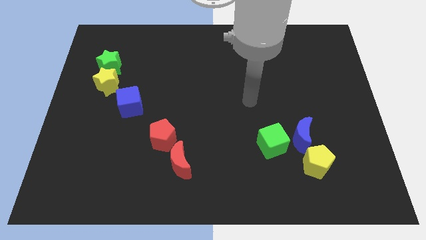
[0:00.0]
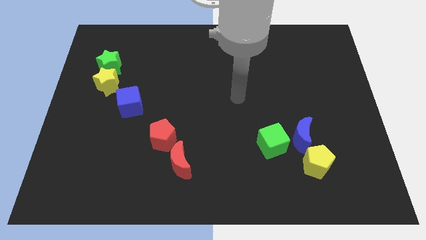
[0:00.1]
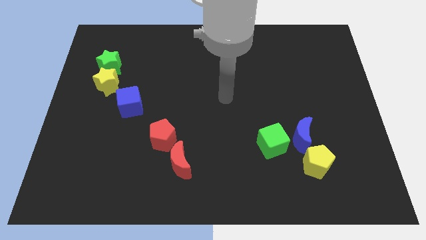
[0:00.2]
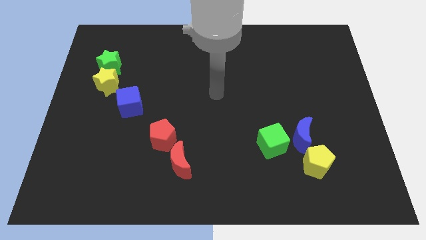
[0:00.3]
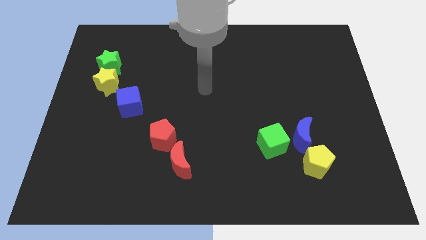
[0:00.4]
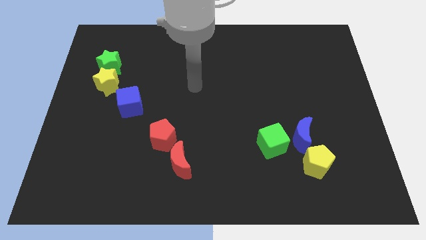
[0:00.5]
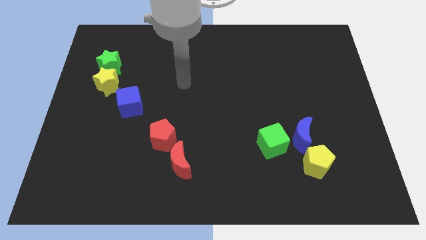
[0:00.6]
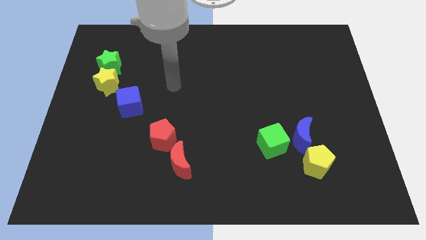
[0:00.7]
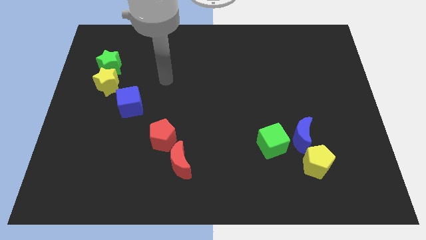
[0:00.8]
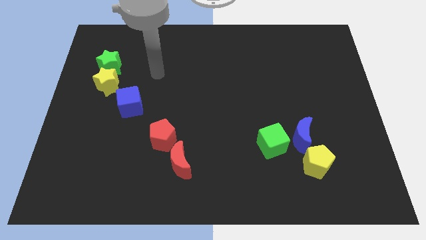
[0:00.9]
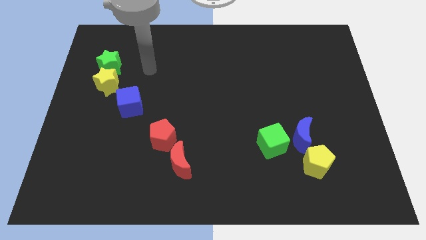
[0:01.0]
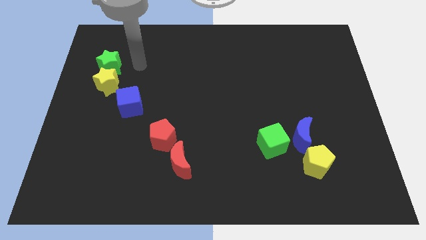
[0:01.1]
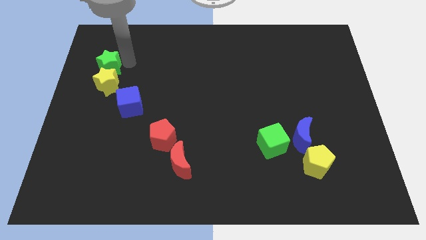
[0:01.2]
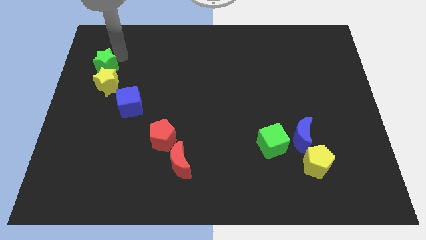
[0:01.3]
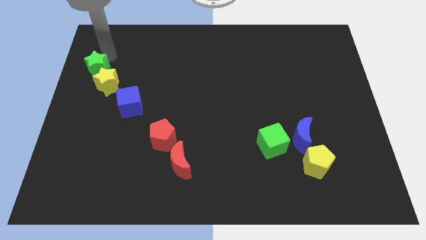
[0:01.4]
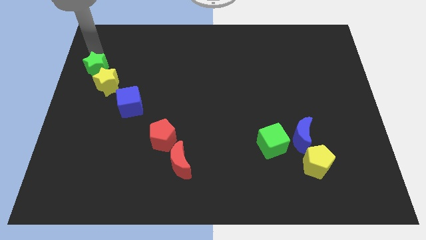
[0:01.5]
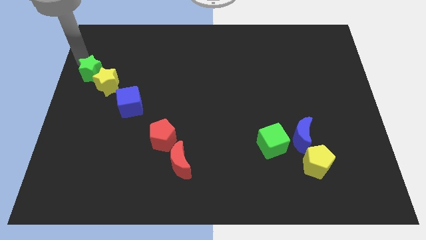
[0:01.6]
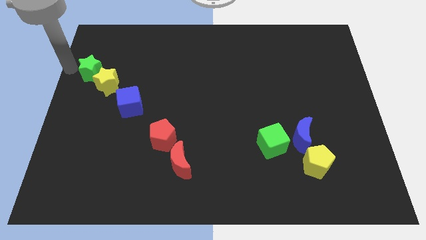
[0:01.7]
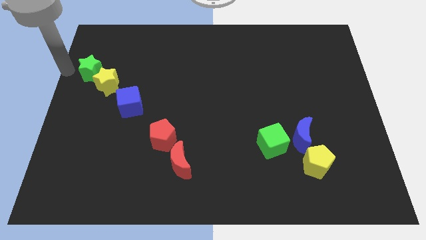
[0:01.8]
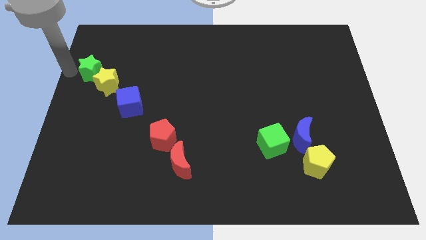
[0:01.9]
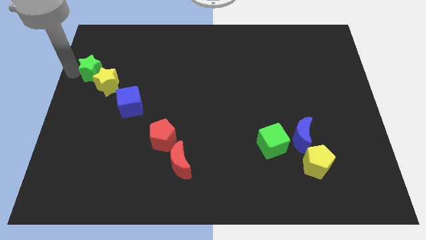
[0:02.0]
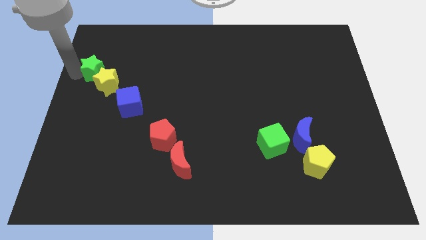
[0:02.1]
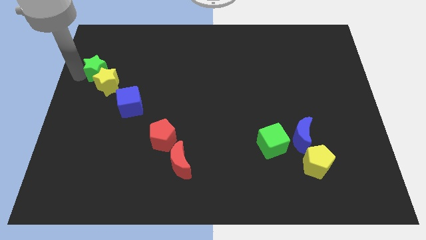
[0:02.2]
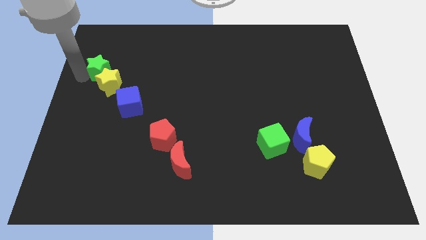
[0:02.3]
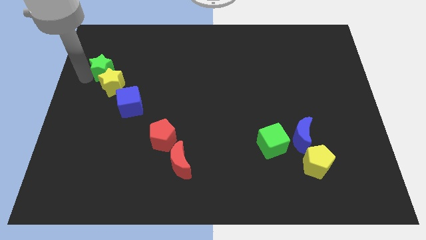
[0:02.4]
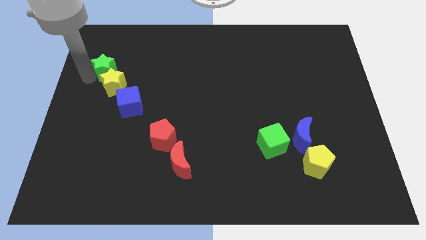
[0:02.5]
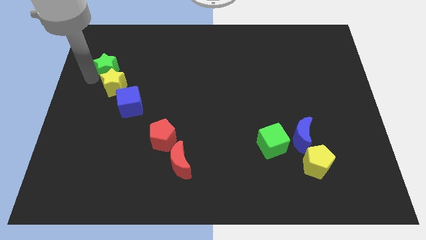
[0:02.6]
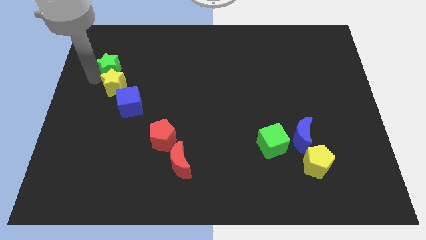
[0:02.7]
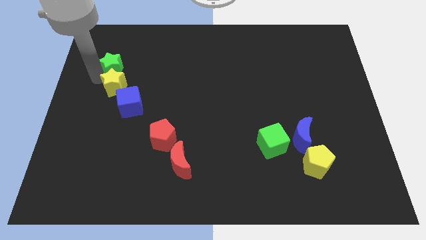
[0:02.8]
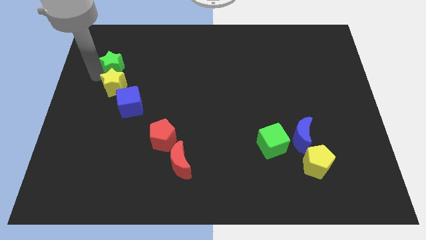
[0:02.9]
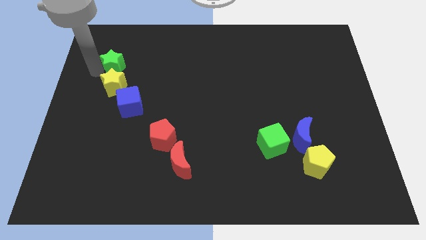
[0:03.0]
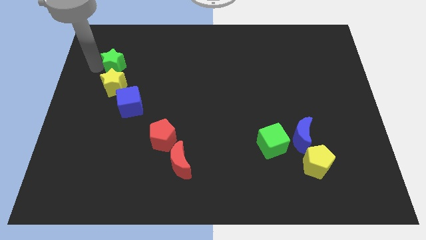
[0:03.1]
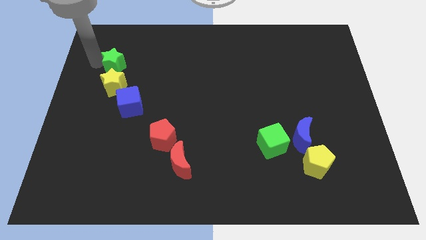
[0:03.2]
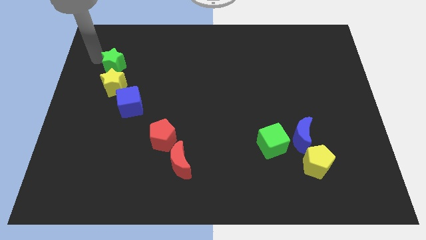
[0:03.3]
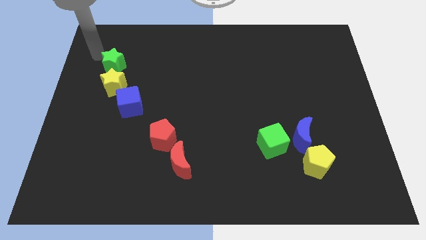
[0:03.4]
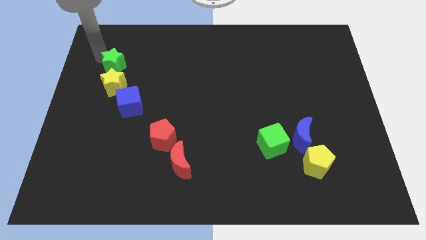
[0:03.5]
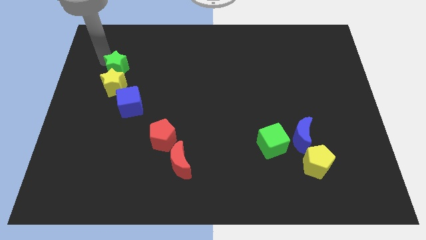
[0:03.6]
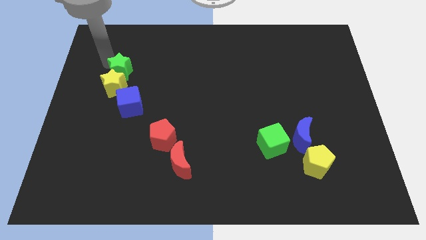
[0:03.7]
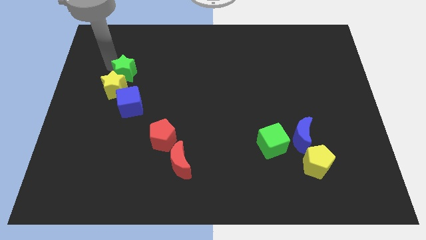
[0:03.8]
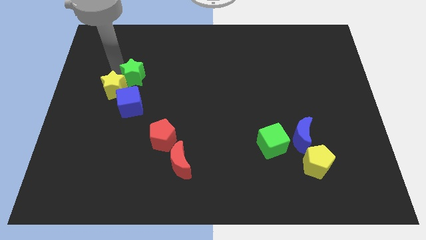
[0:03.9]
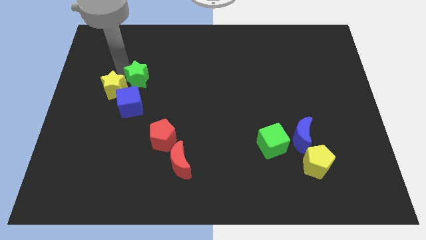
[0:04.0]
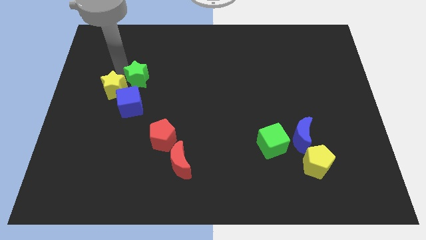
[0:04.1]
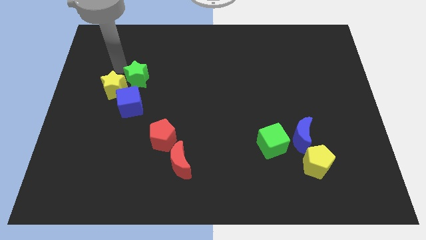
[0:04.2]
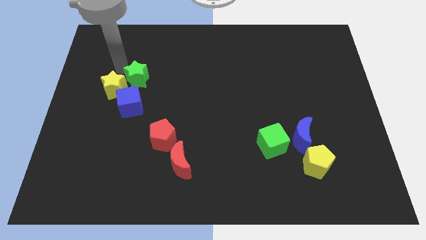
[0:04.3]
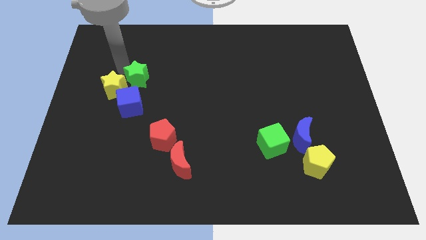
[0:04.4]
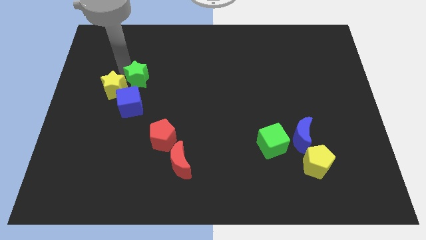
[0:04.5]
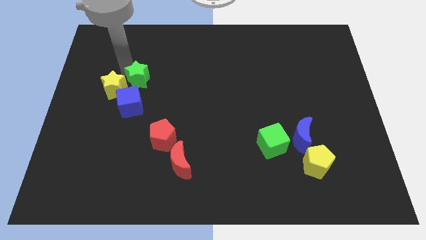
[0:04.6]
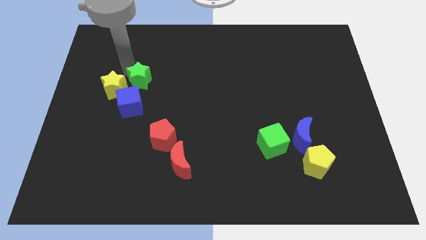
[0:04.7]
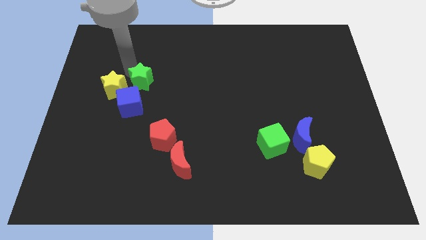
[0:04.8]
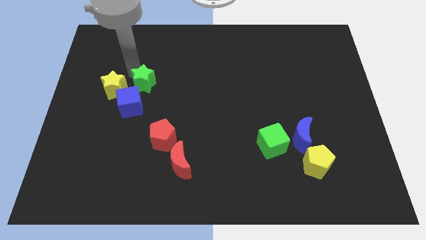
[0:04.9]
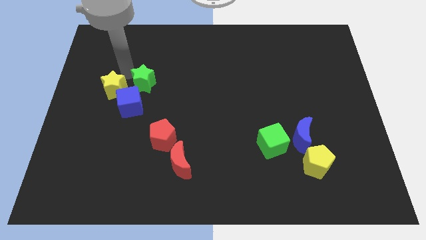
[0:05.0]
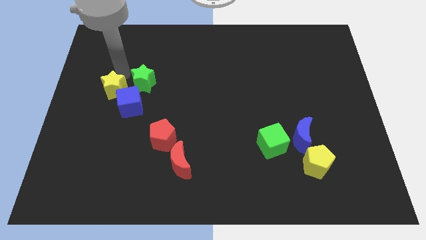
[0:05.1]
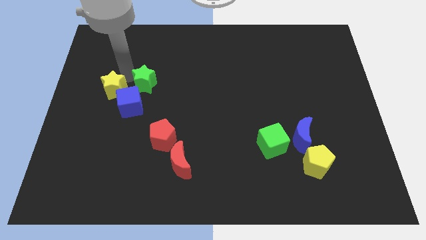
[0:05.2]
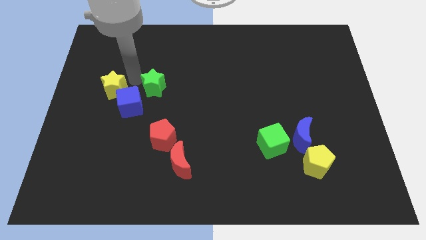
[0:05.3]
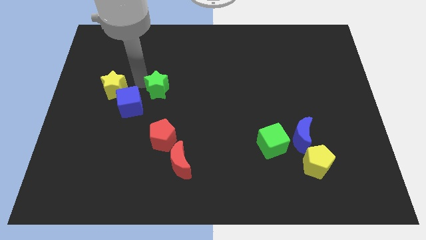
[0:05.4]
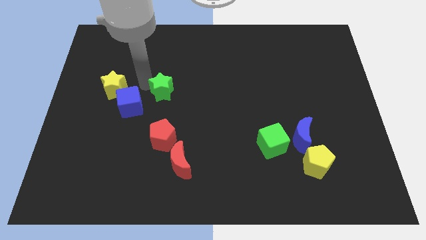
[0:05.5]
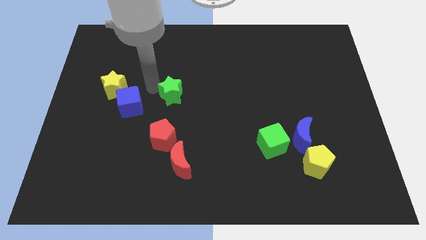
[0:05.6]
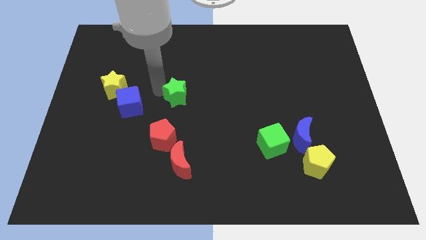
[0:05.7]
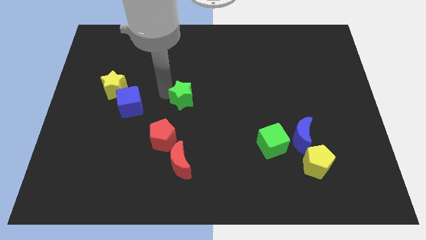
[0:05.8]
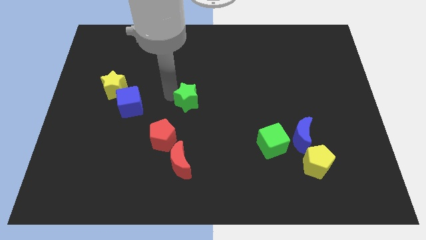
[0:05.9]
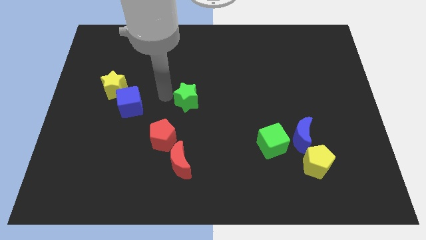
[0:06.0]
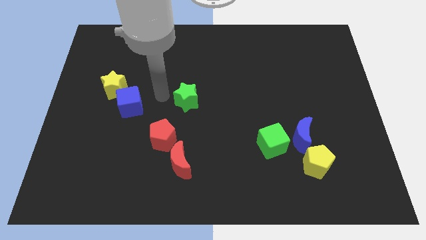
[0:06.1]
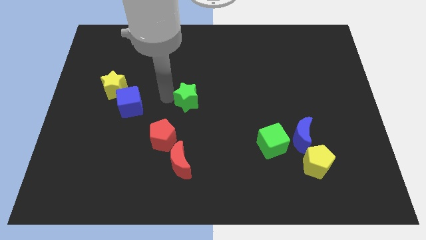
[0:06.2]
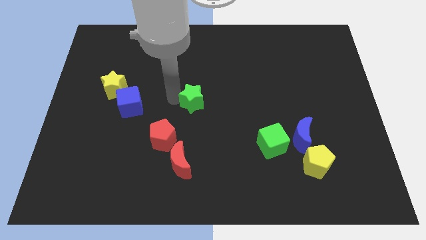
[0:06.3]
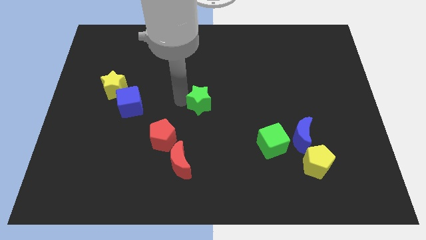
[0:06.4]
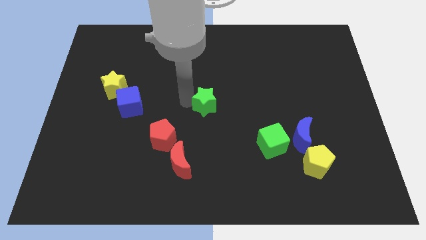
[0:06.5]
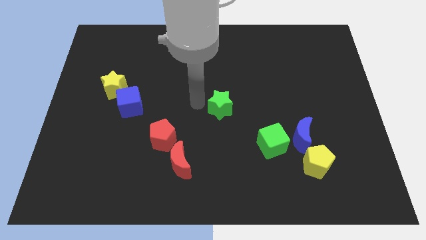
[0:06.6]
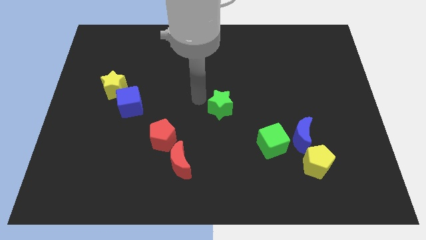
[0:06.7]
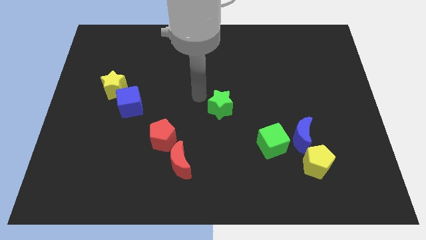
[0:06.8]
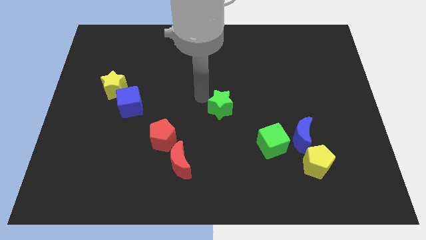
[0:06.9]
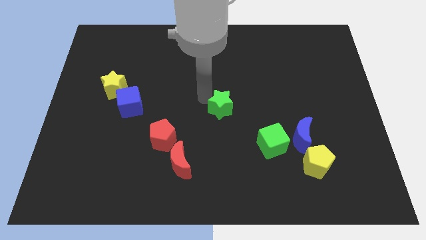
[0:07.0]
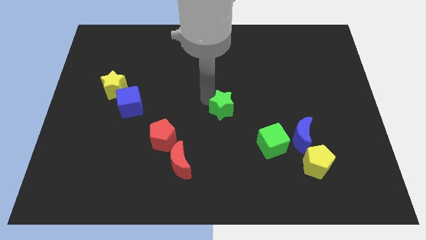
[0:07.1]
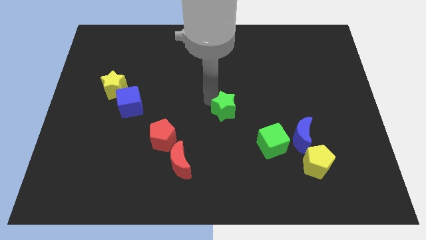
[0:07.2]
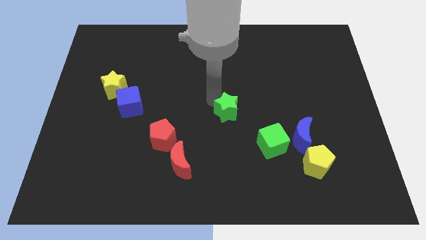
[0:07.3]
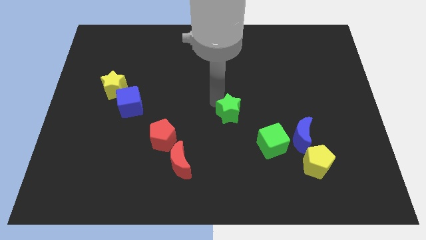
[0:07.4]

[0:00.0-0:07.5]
push the green star to the top left side of the green cube

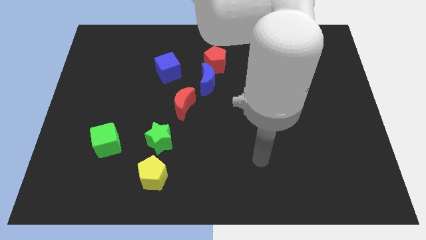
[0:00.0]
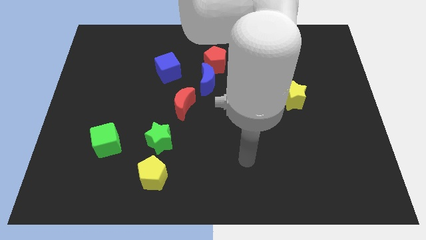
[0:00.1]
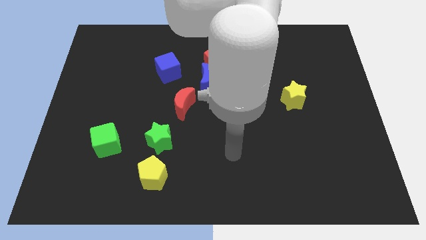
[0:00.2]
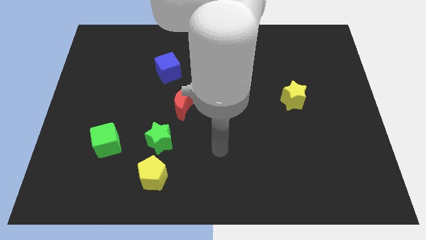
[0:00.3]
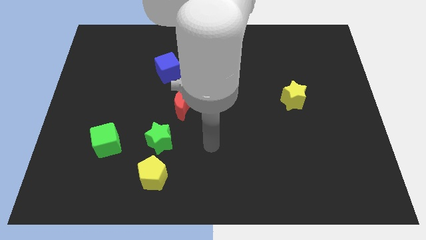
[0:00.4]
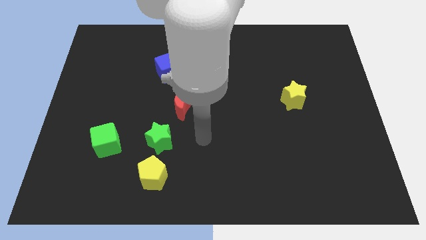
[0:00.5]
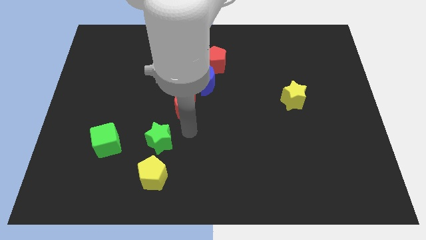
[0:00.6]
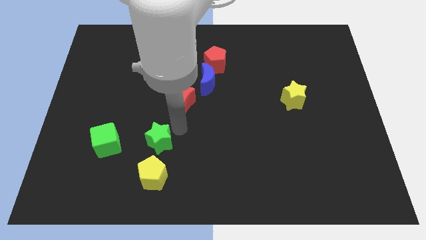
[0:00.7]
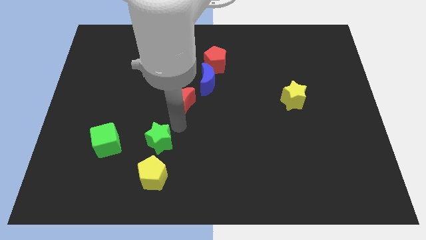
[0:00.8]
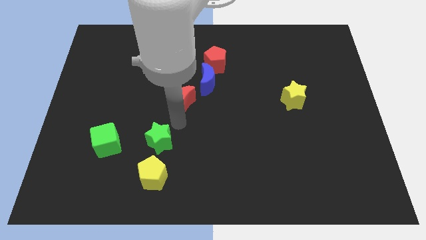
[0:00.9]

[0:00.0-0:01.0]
put the red moon diagonally down and to the right of the blue cube

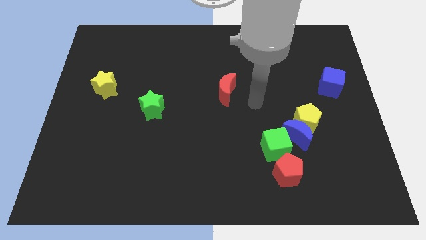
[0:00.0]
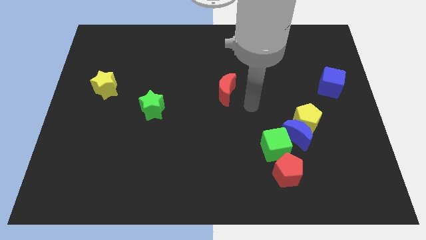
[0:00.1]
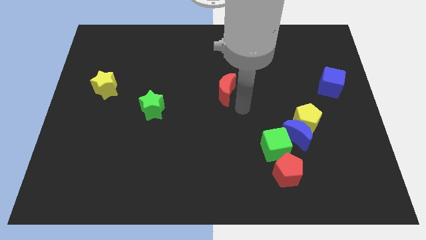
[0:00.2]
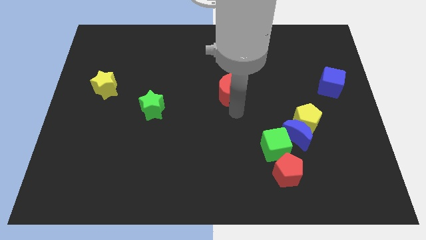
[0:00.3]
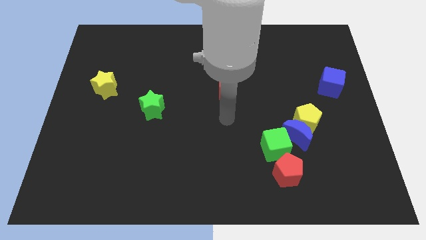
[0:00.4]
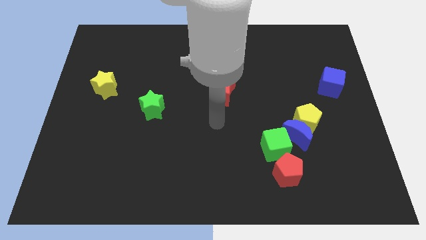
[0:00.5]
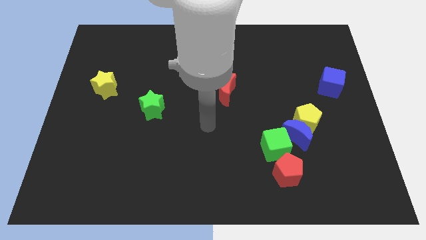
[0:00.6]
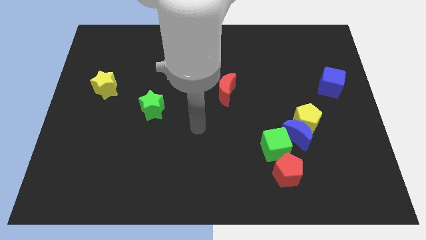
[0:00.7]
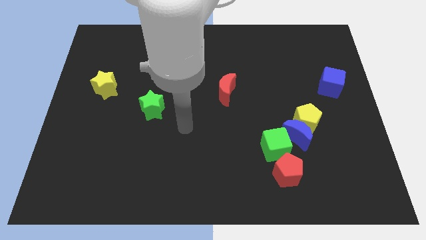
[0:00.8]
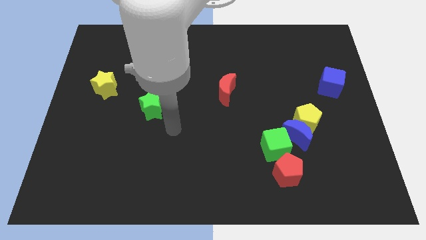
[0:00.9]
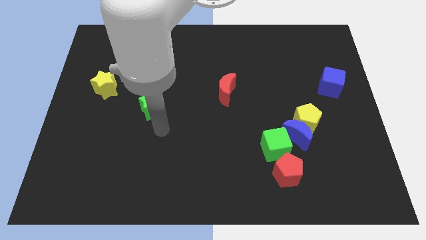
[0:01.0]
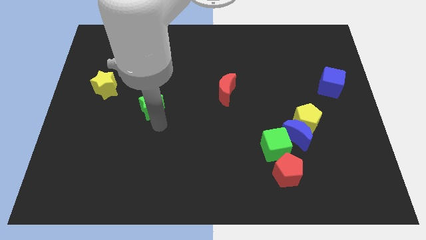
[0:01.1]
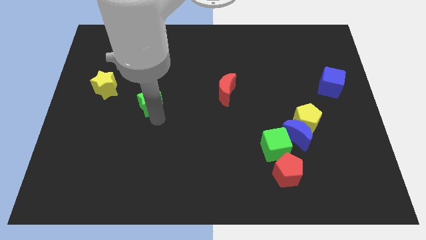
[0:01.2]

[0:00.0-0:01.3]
move the green star to the right side of the yellow star
